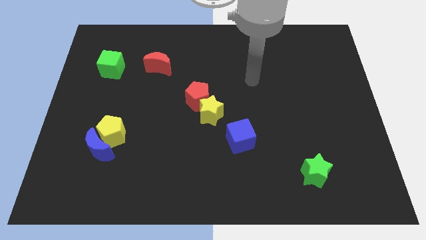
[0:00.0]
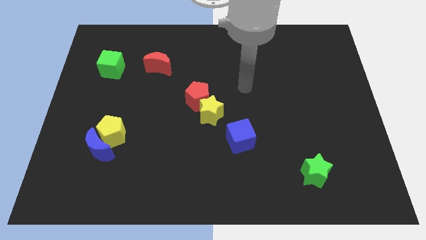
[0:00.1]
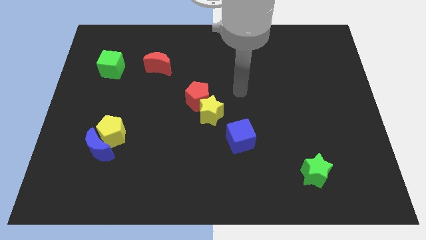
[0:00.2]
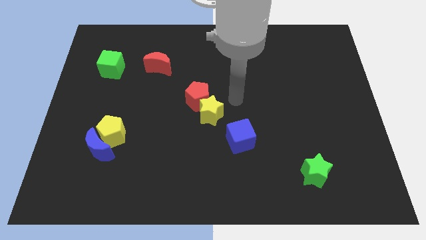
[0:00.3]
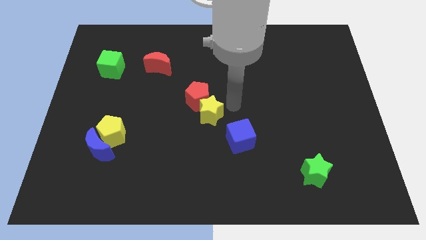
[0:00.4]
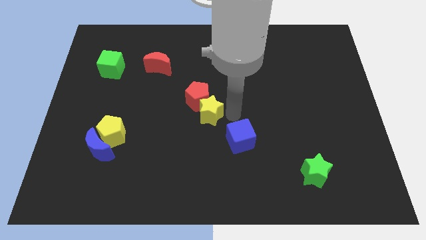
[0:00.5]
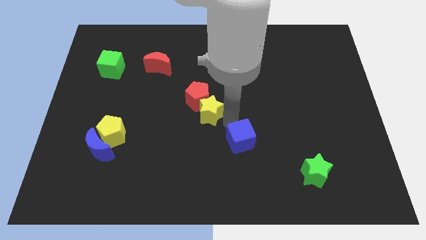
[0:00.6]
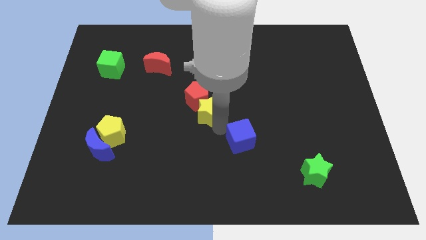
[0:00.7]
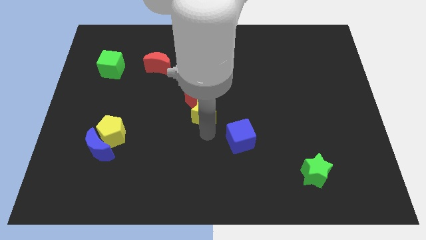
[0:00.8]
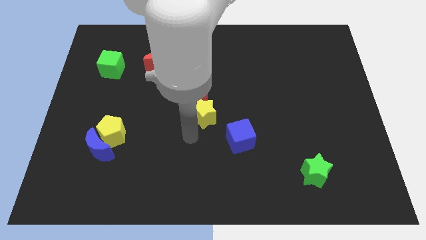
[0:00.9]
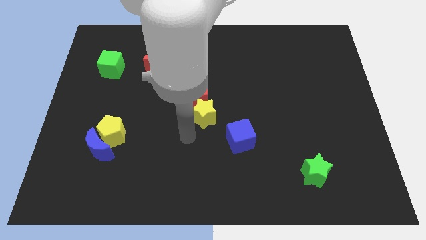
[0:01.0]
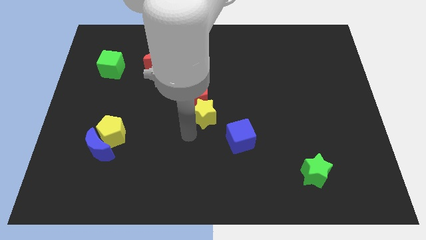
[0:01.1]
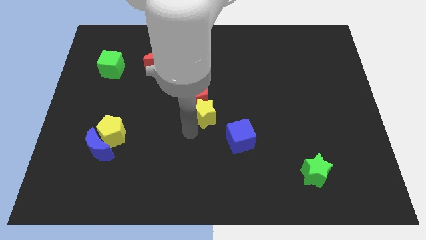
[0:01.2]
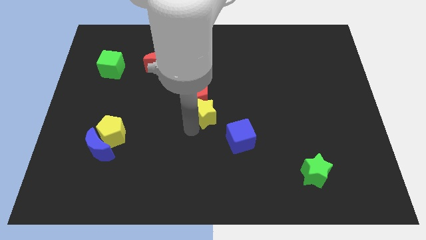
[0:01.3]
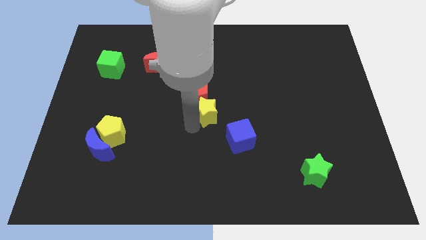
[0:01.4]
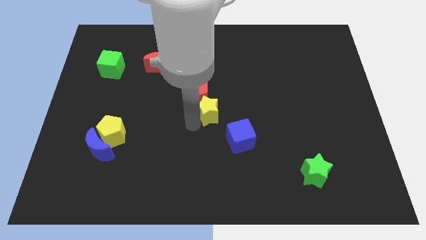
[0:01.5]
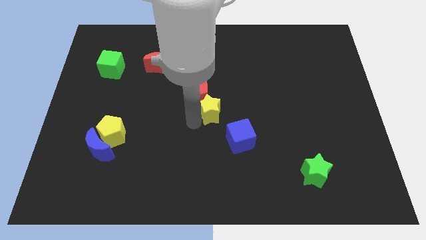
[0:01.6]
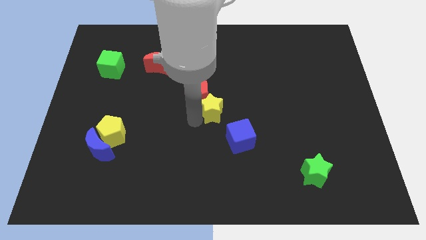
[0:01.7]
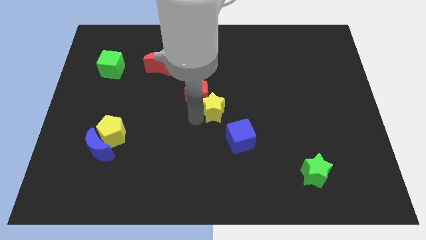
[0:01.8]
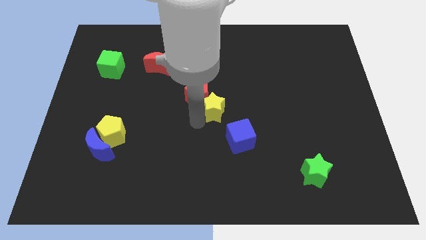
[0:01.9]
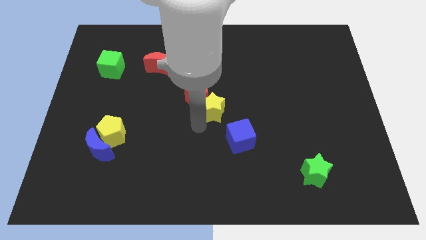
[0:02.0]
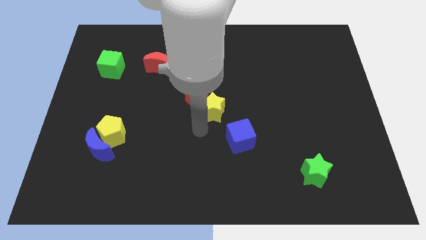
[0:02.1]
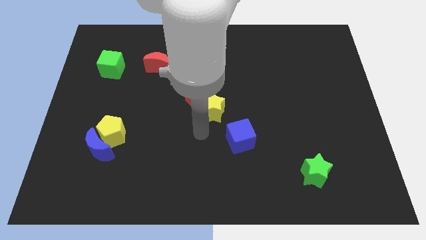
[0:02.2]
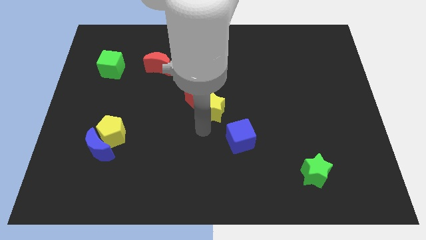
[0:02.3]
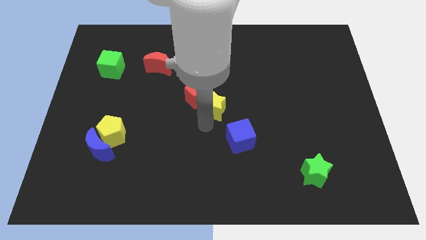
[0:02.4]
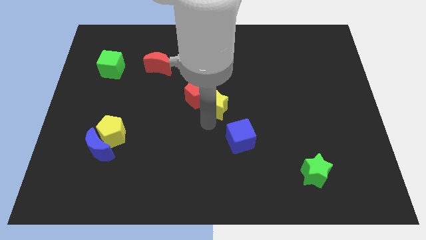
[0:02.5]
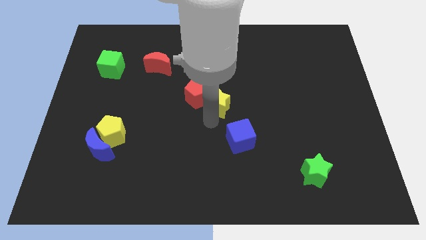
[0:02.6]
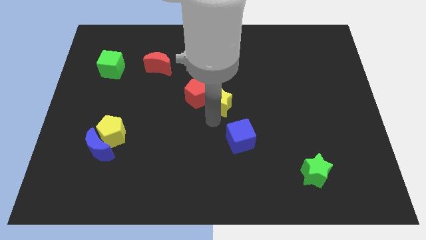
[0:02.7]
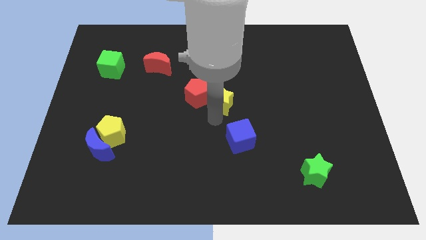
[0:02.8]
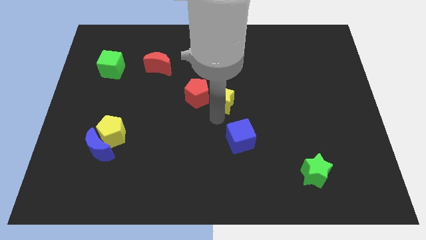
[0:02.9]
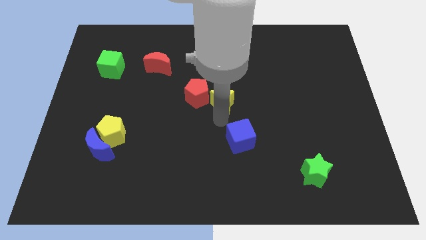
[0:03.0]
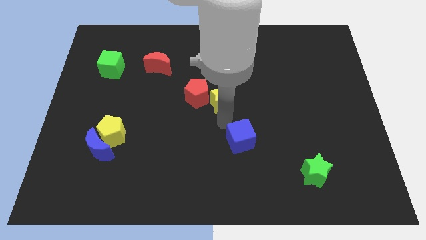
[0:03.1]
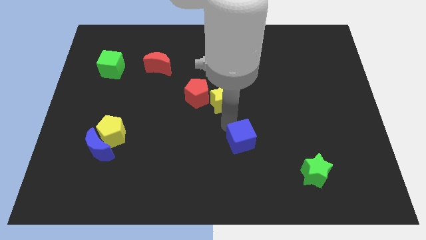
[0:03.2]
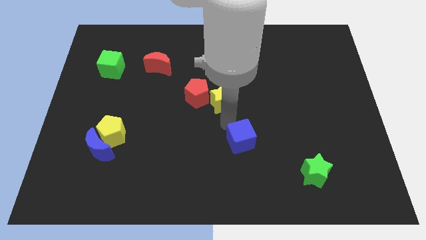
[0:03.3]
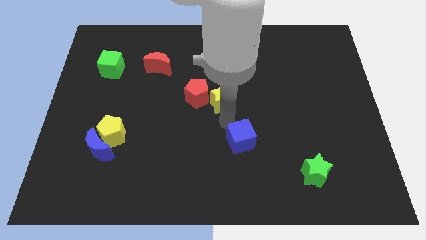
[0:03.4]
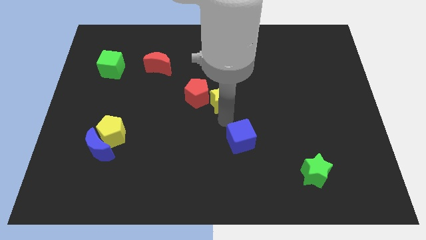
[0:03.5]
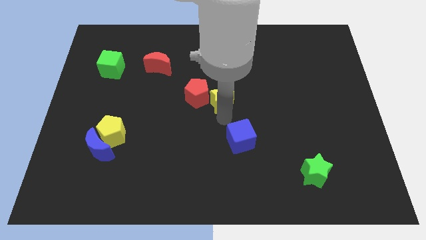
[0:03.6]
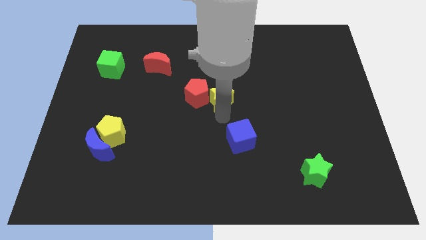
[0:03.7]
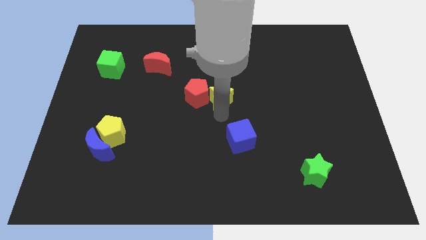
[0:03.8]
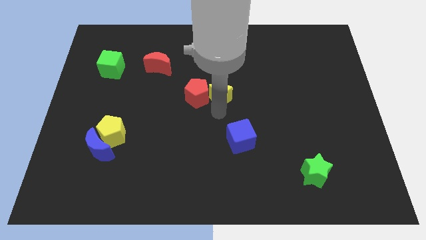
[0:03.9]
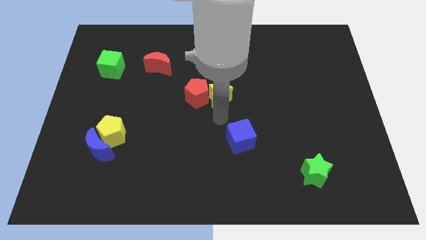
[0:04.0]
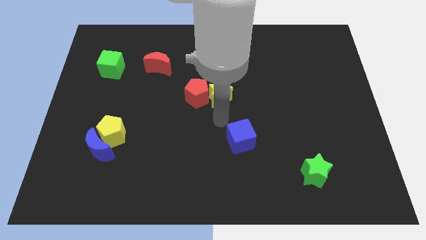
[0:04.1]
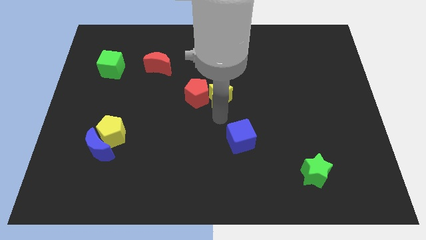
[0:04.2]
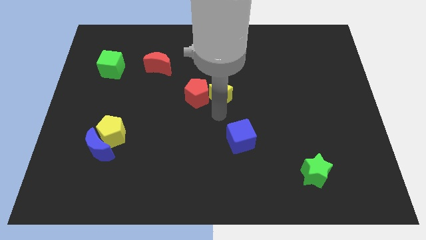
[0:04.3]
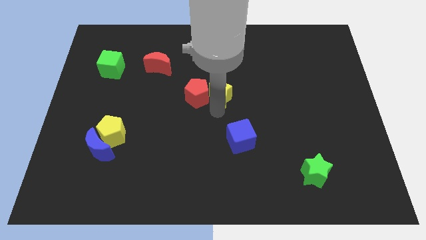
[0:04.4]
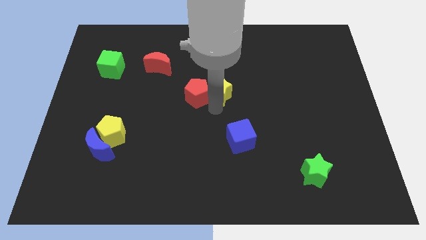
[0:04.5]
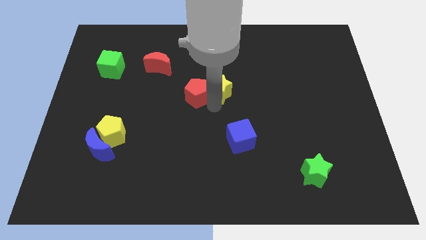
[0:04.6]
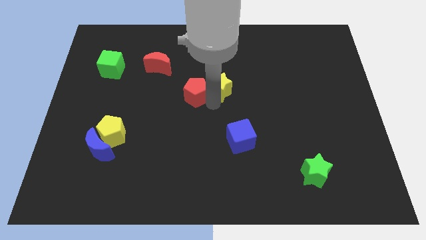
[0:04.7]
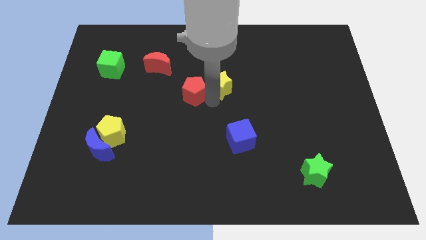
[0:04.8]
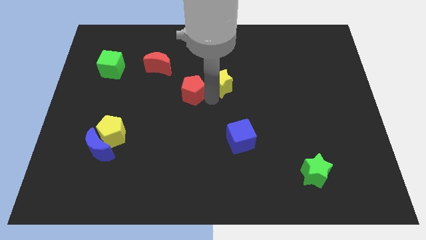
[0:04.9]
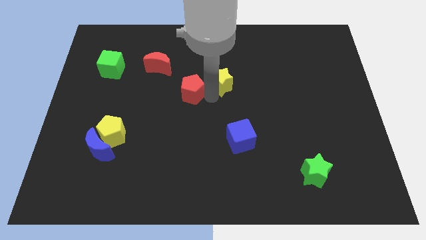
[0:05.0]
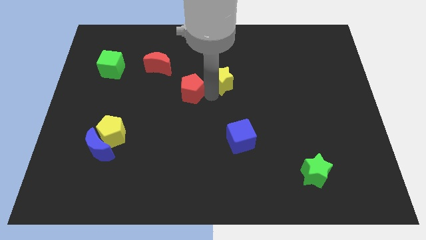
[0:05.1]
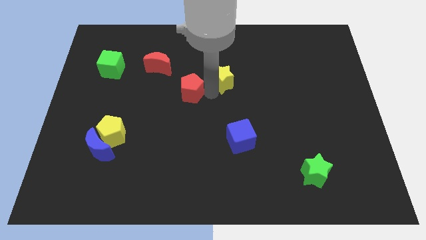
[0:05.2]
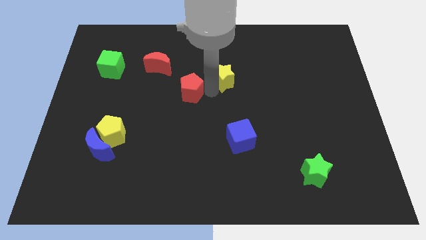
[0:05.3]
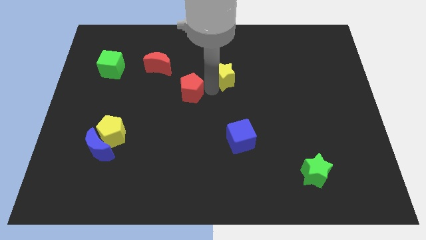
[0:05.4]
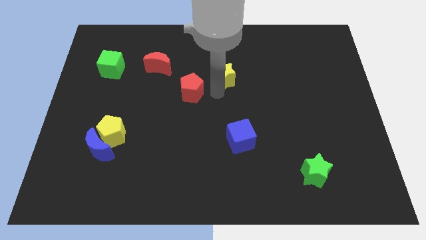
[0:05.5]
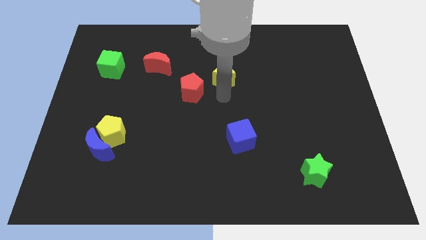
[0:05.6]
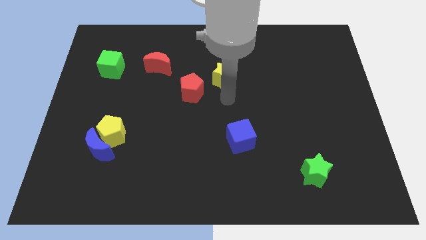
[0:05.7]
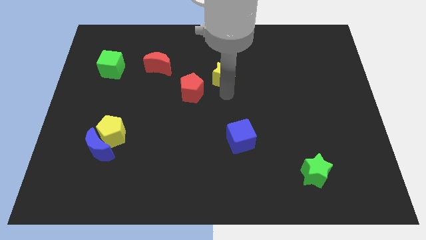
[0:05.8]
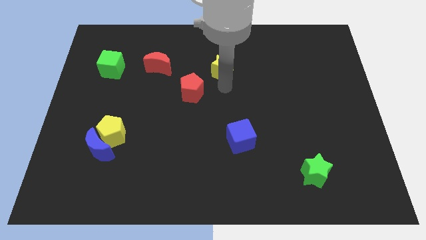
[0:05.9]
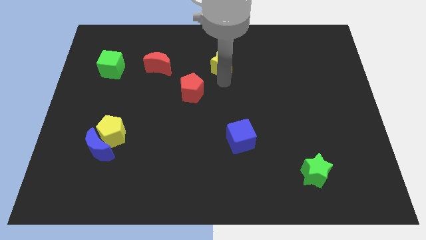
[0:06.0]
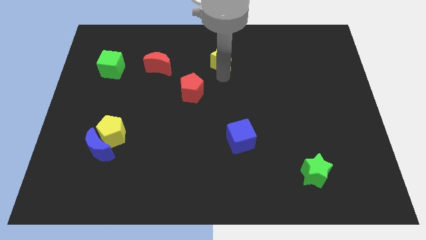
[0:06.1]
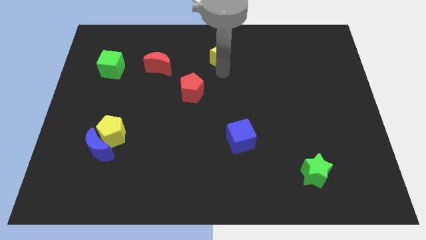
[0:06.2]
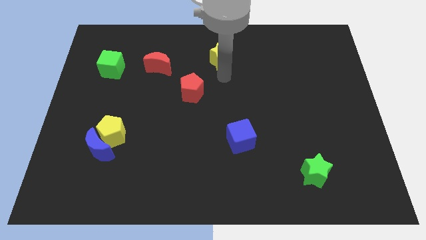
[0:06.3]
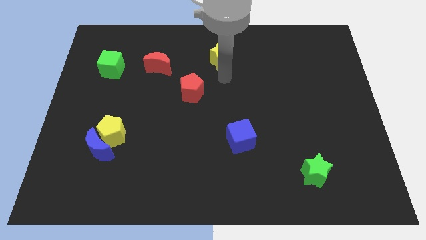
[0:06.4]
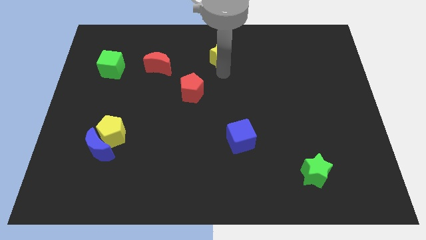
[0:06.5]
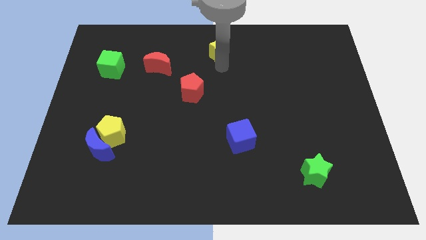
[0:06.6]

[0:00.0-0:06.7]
put the yellow star to the towards your base
